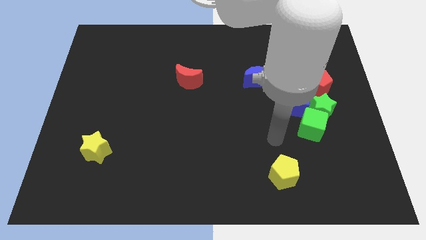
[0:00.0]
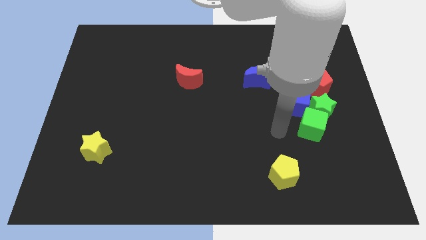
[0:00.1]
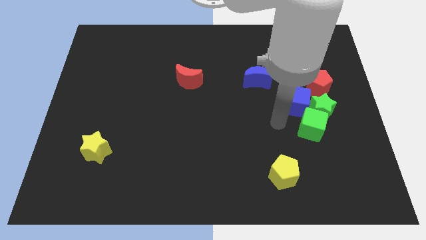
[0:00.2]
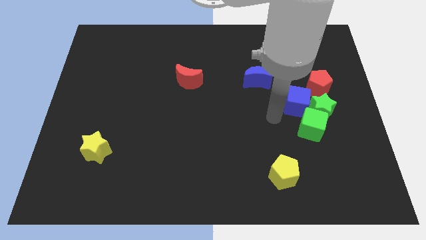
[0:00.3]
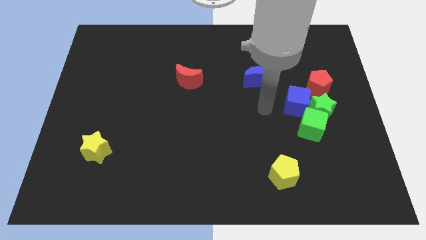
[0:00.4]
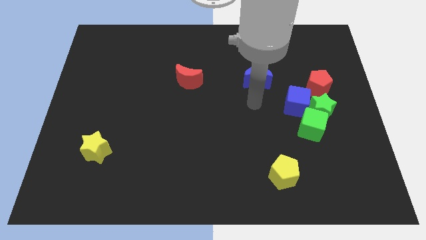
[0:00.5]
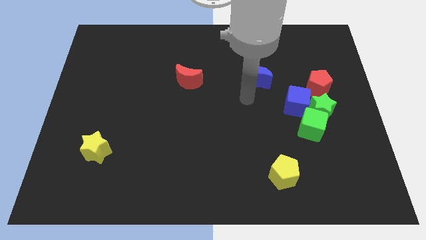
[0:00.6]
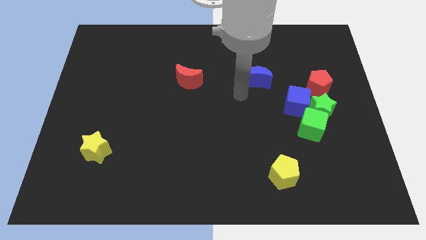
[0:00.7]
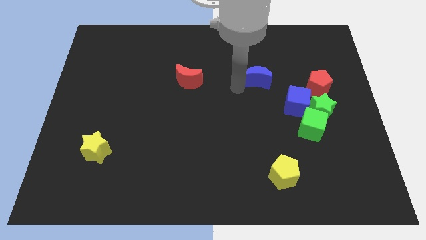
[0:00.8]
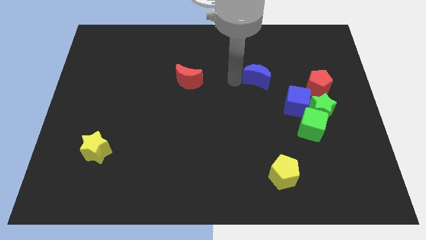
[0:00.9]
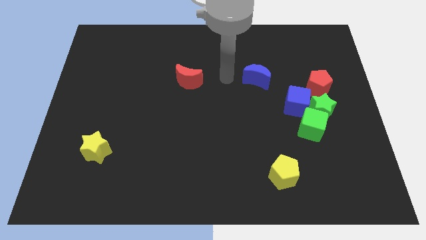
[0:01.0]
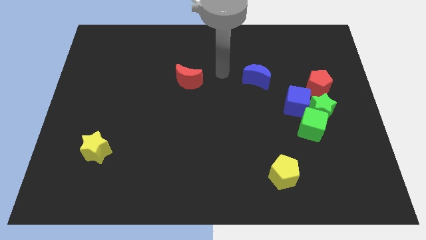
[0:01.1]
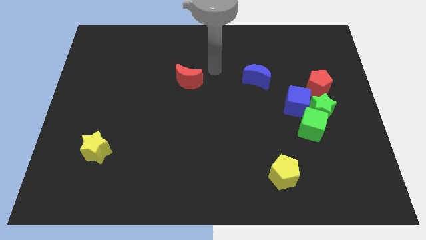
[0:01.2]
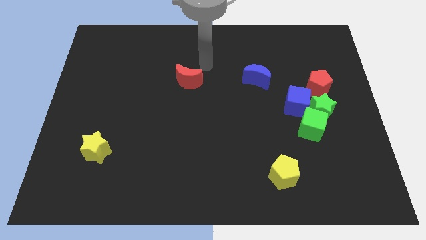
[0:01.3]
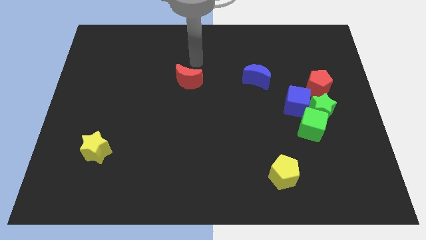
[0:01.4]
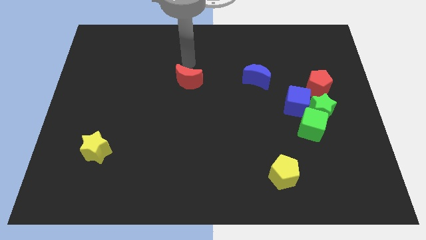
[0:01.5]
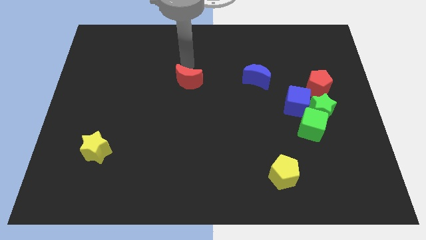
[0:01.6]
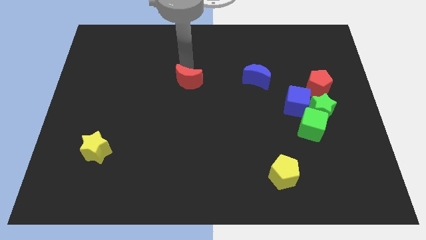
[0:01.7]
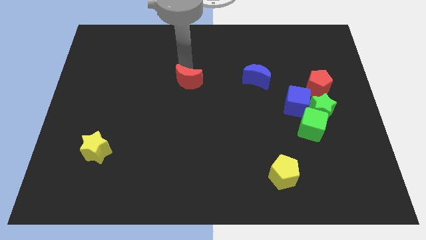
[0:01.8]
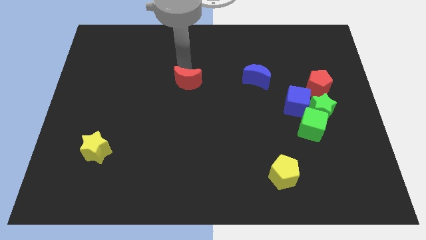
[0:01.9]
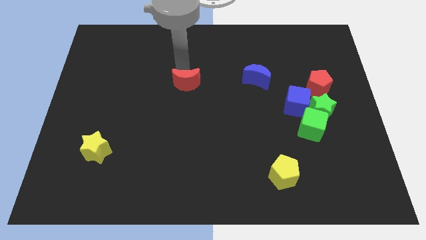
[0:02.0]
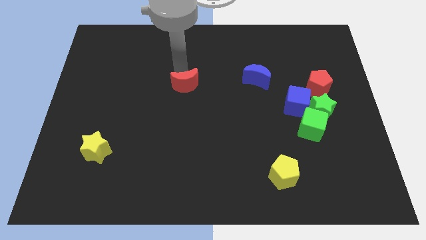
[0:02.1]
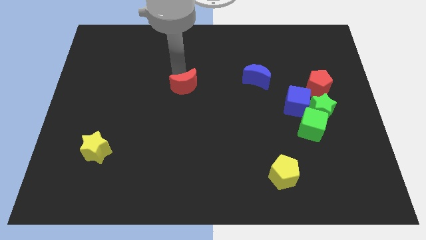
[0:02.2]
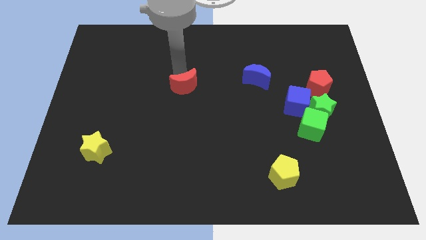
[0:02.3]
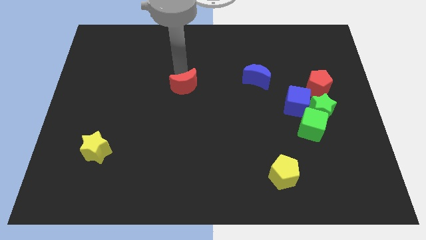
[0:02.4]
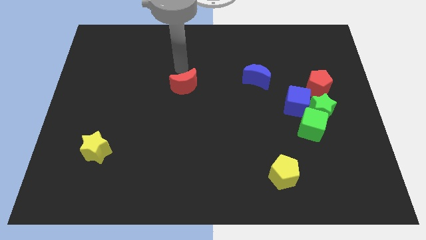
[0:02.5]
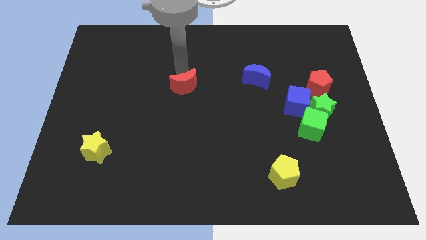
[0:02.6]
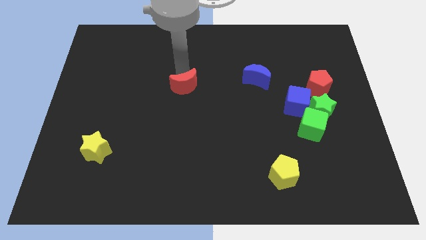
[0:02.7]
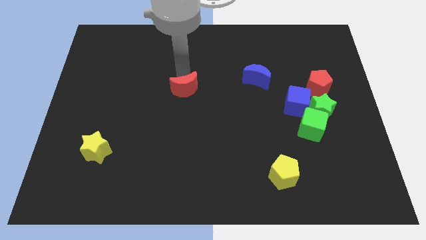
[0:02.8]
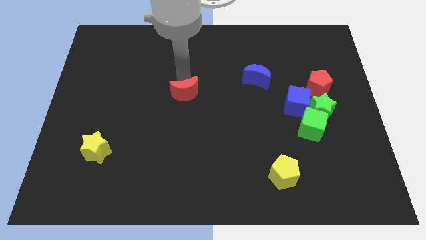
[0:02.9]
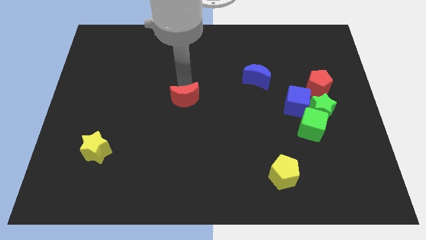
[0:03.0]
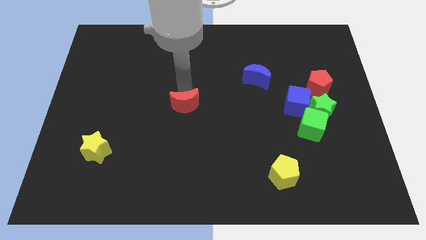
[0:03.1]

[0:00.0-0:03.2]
move the red moon downwards a little

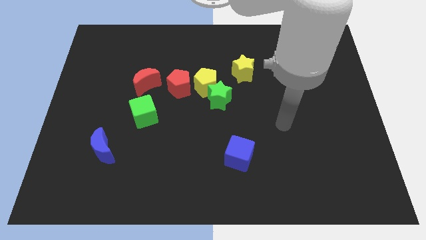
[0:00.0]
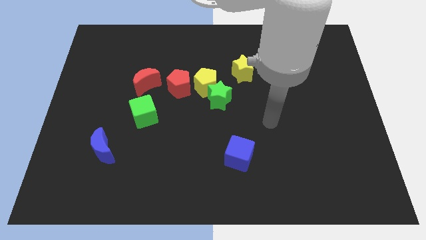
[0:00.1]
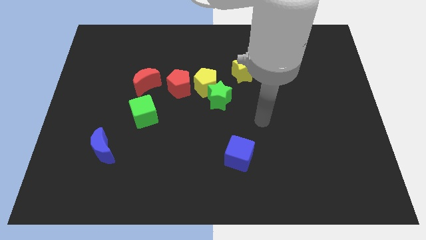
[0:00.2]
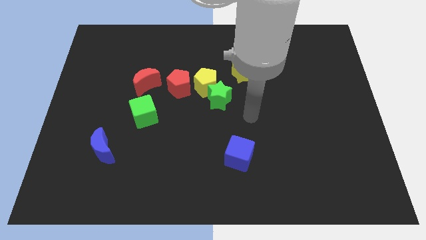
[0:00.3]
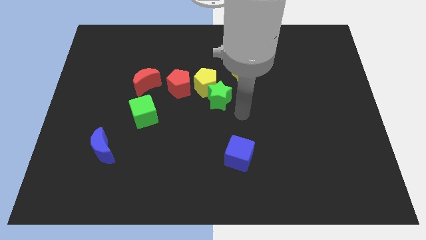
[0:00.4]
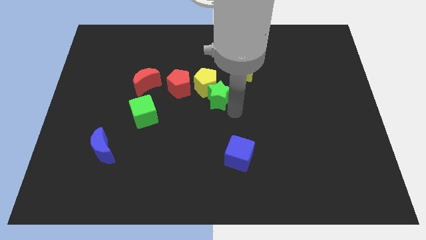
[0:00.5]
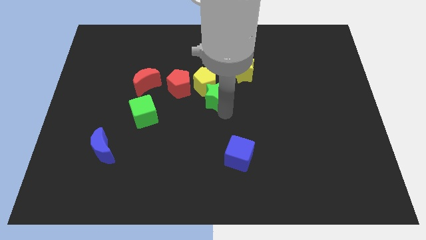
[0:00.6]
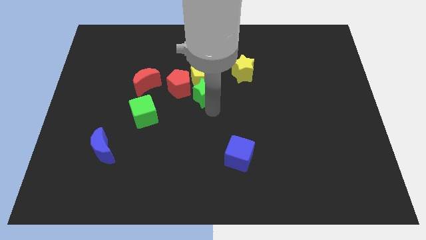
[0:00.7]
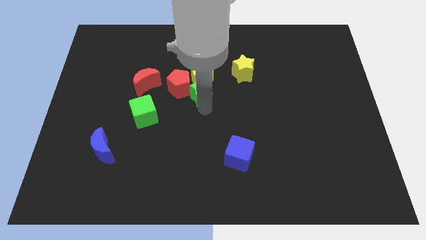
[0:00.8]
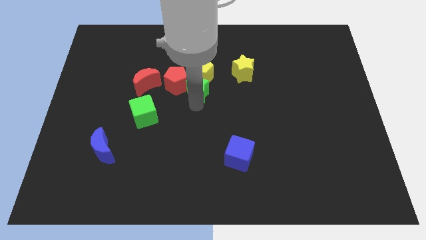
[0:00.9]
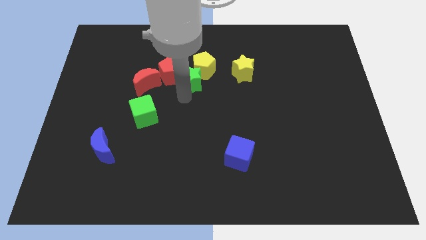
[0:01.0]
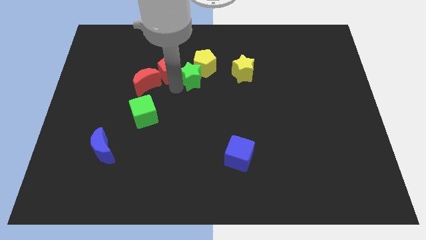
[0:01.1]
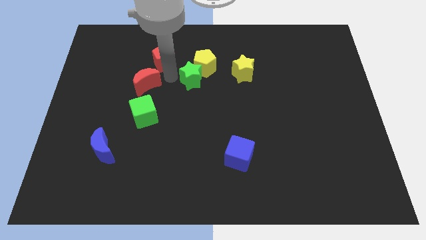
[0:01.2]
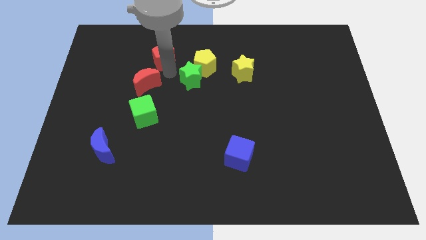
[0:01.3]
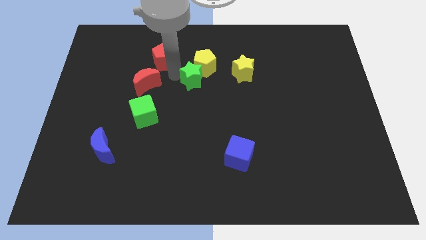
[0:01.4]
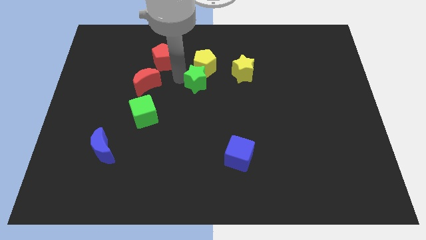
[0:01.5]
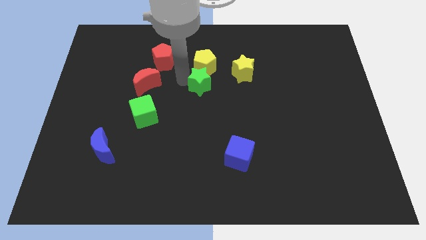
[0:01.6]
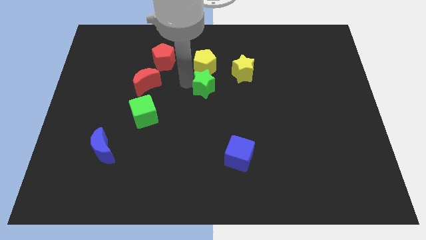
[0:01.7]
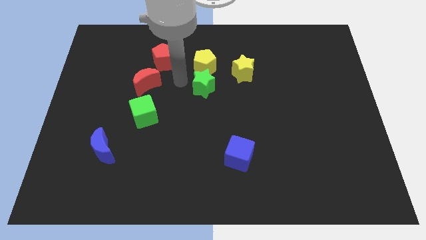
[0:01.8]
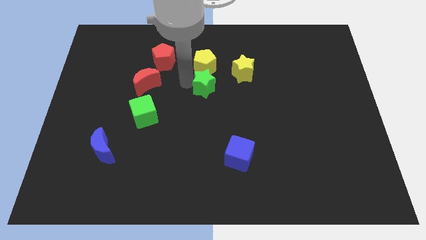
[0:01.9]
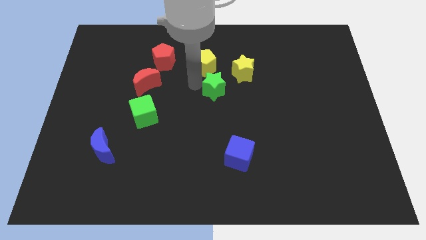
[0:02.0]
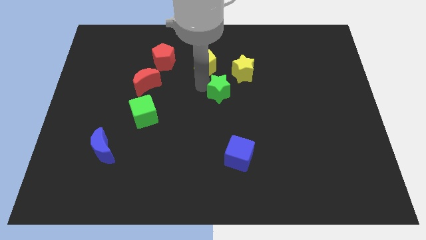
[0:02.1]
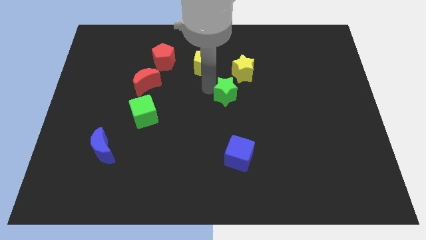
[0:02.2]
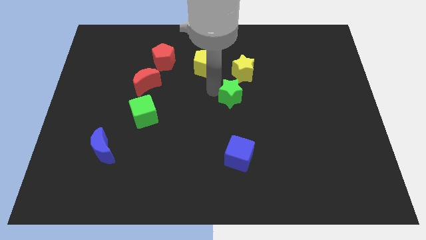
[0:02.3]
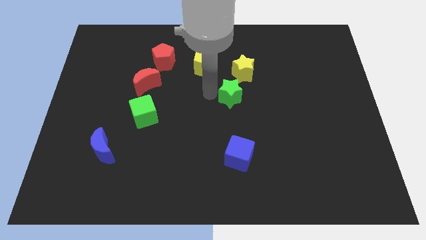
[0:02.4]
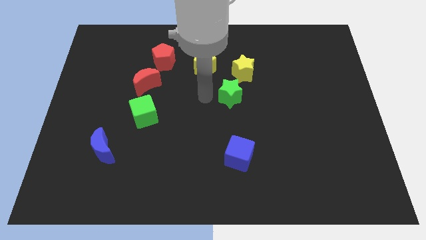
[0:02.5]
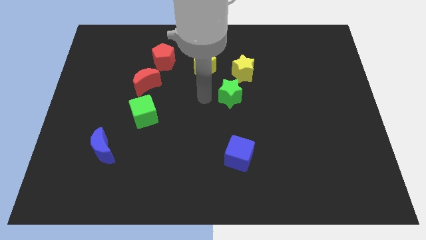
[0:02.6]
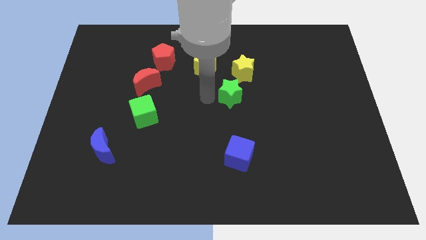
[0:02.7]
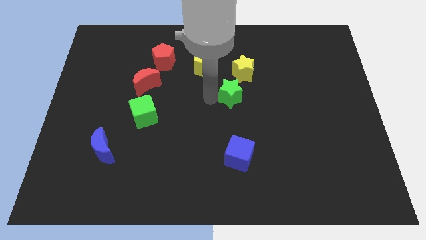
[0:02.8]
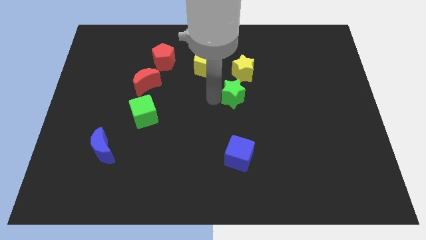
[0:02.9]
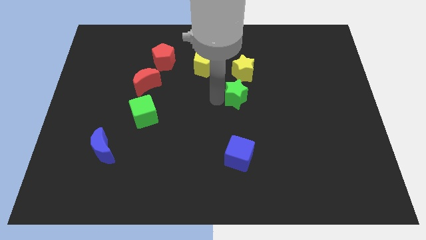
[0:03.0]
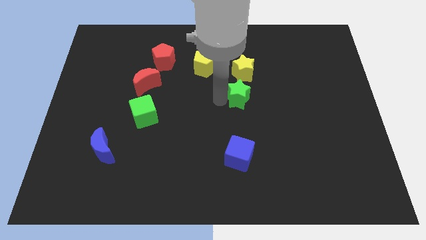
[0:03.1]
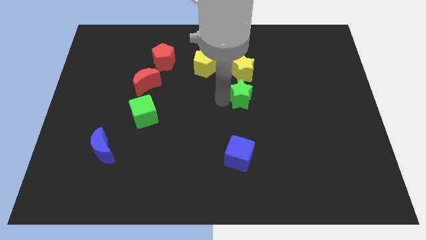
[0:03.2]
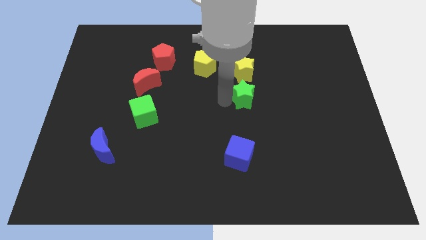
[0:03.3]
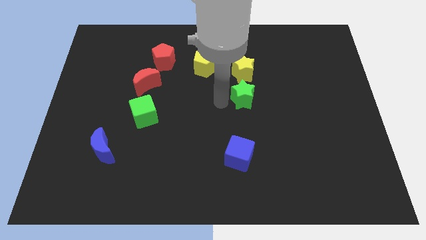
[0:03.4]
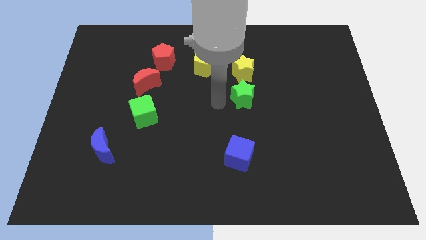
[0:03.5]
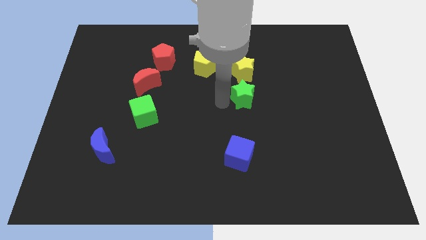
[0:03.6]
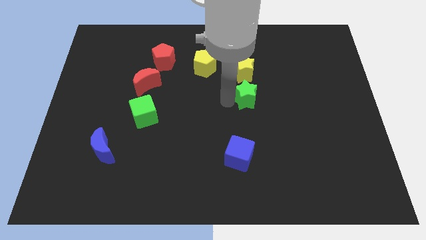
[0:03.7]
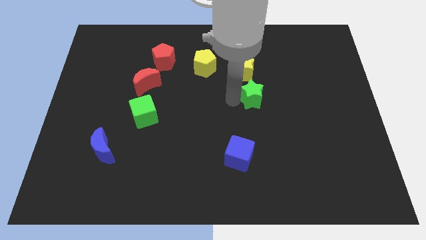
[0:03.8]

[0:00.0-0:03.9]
slide the green star right a little bit

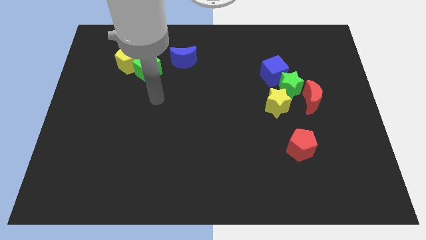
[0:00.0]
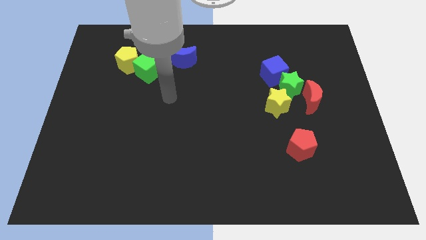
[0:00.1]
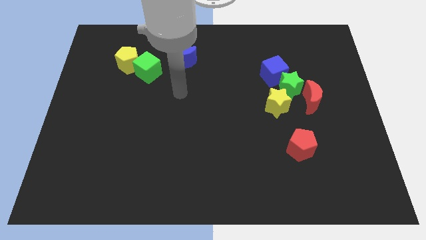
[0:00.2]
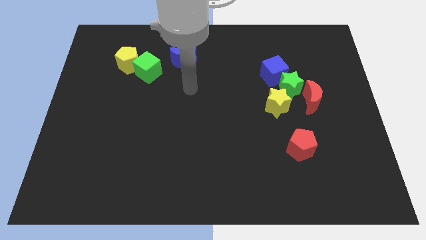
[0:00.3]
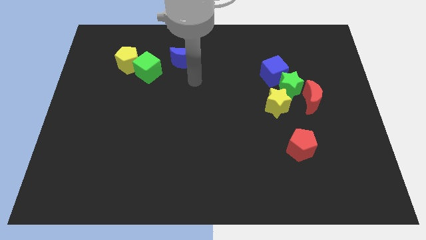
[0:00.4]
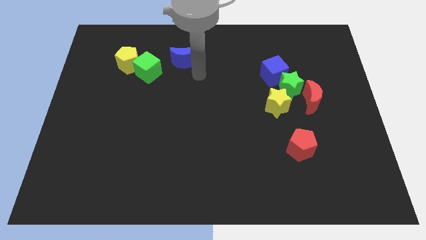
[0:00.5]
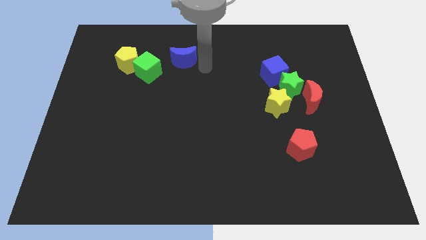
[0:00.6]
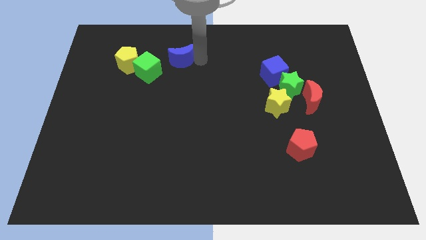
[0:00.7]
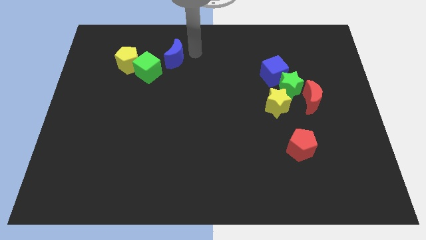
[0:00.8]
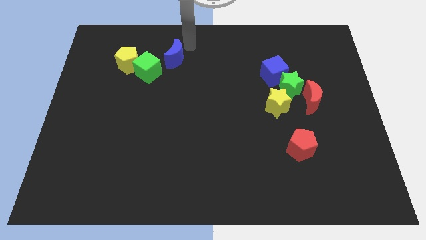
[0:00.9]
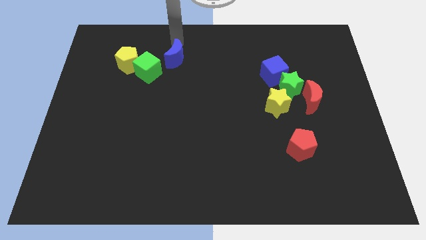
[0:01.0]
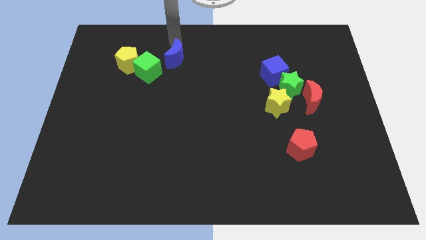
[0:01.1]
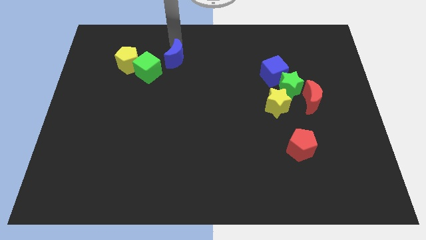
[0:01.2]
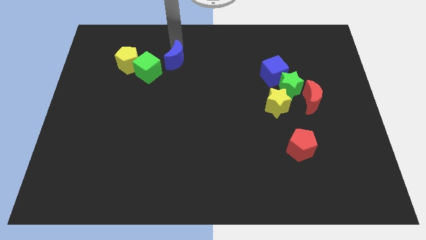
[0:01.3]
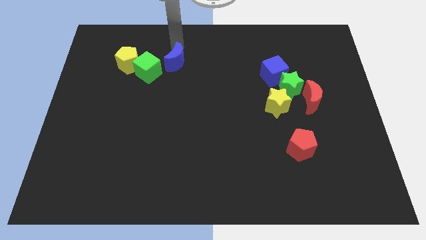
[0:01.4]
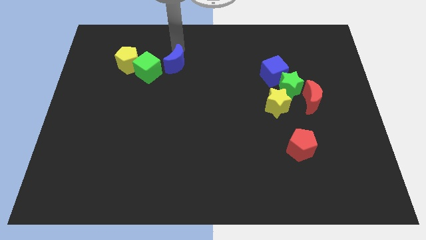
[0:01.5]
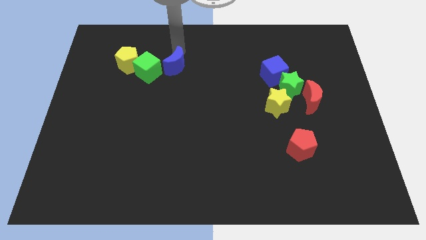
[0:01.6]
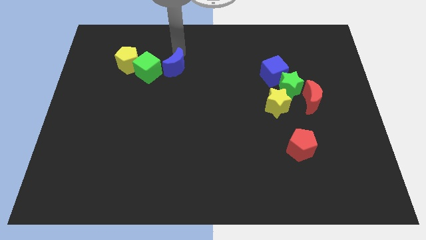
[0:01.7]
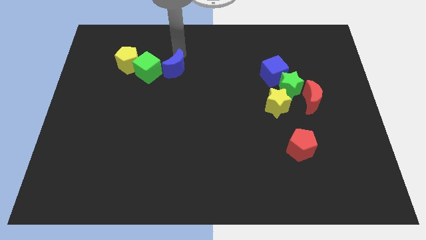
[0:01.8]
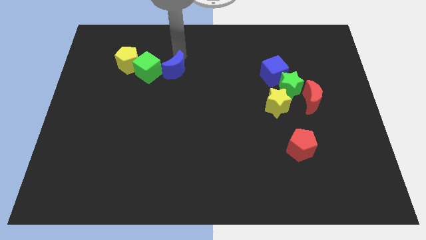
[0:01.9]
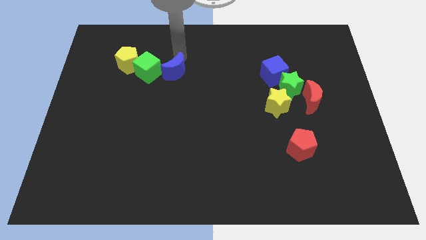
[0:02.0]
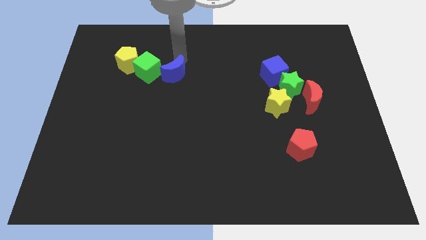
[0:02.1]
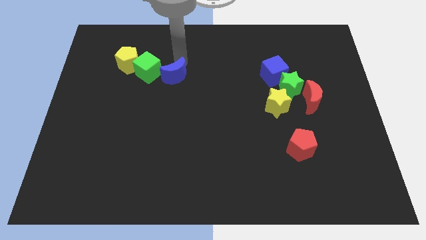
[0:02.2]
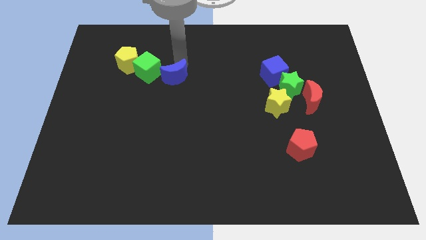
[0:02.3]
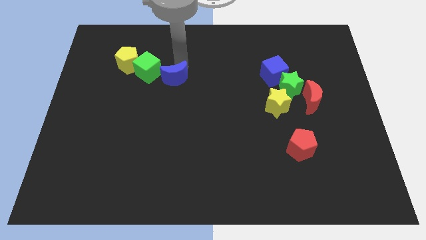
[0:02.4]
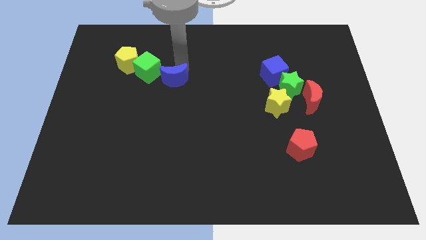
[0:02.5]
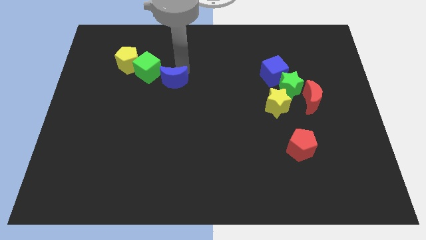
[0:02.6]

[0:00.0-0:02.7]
move the blue moon downwards slightly
